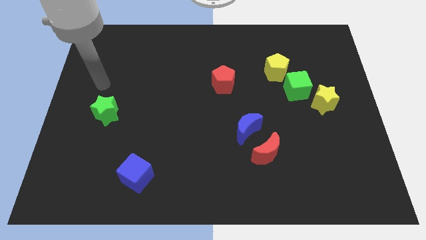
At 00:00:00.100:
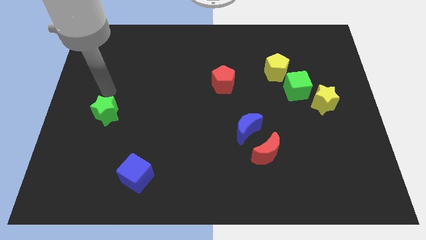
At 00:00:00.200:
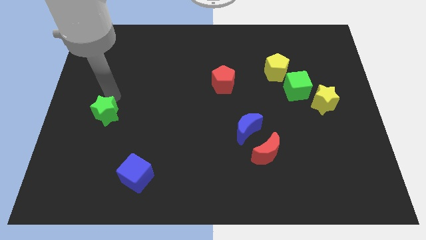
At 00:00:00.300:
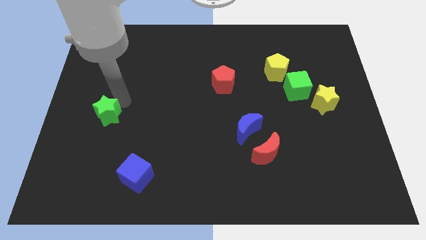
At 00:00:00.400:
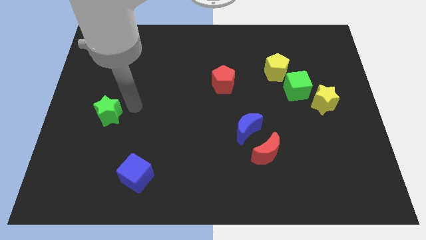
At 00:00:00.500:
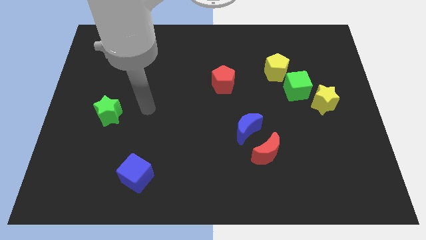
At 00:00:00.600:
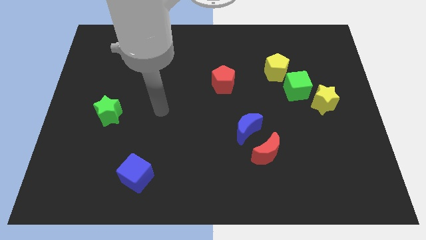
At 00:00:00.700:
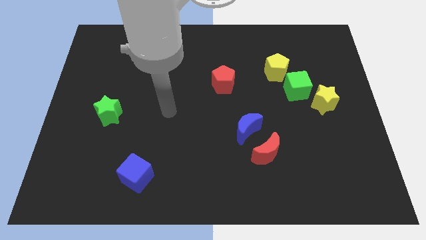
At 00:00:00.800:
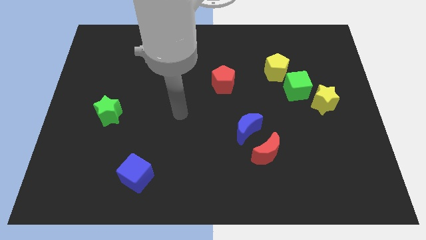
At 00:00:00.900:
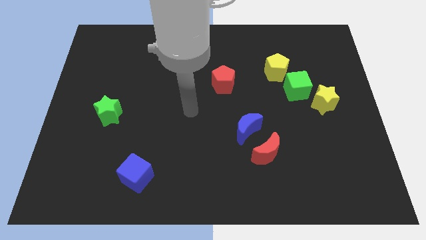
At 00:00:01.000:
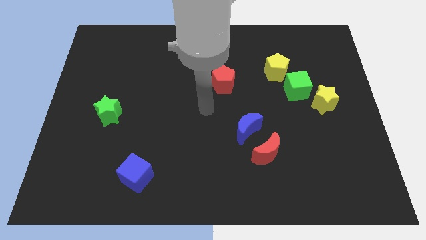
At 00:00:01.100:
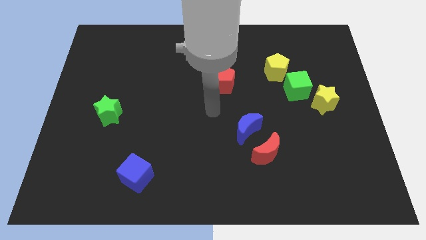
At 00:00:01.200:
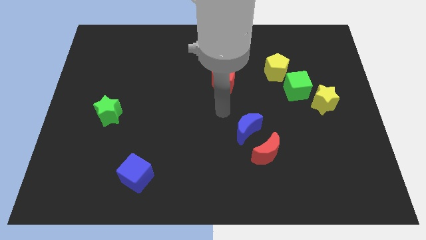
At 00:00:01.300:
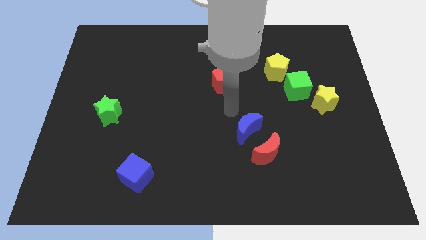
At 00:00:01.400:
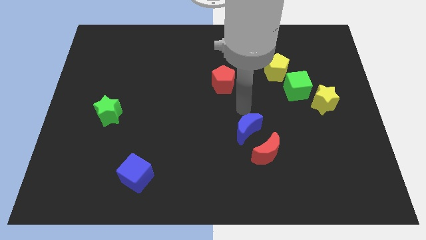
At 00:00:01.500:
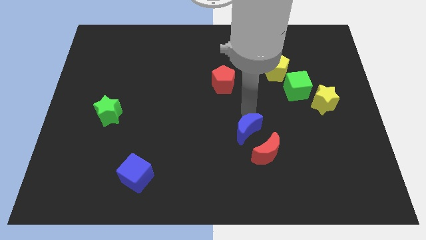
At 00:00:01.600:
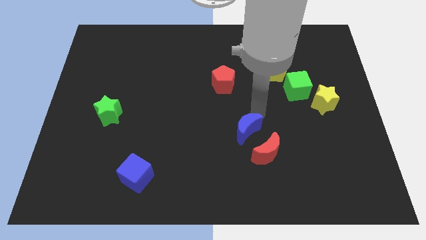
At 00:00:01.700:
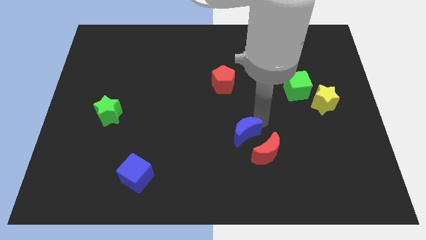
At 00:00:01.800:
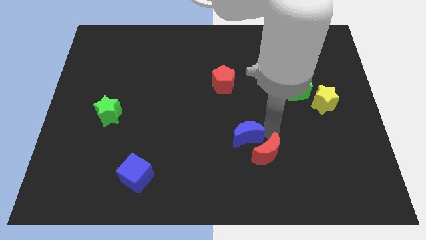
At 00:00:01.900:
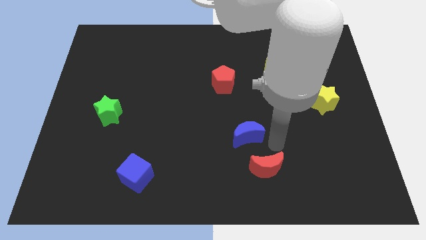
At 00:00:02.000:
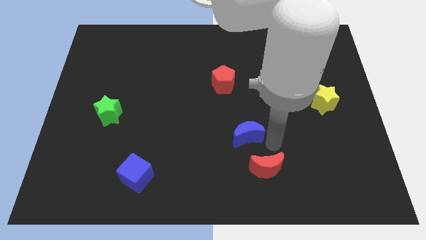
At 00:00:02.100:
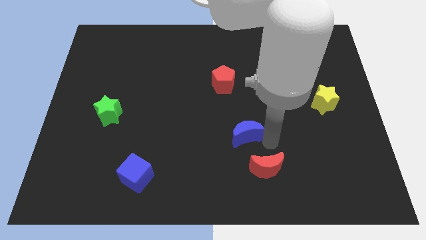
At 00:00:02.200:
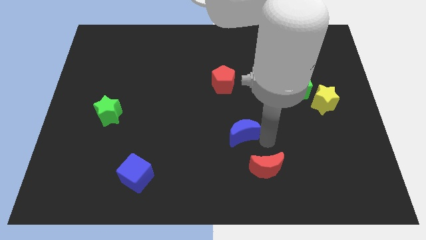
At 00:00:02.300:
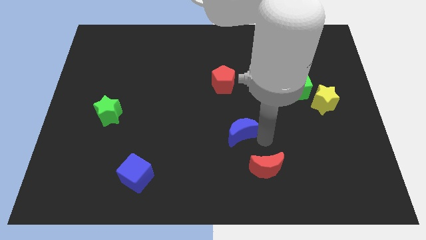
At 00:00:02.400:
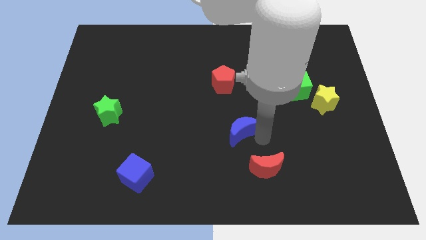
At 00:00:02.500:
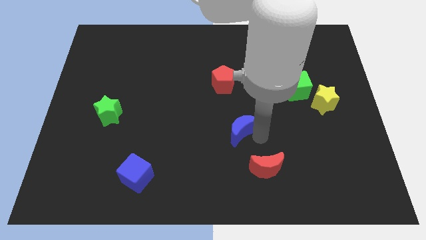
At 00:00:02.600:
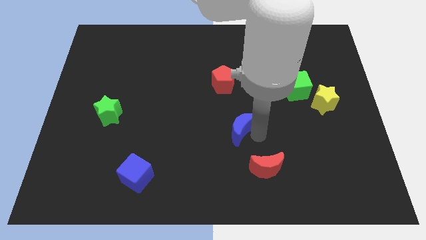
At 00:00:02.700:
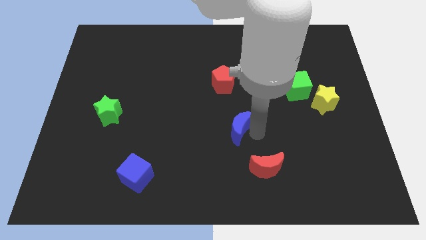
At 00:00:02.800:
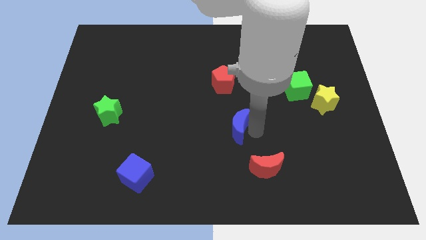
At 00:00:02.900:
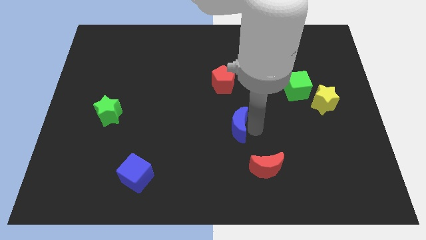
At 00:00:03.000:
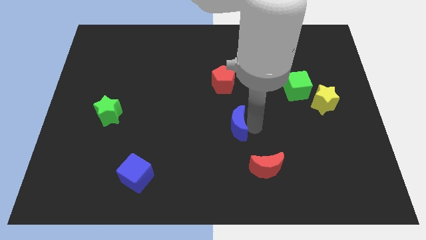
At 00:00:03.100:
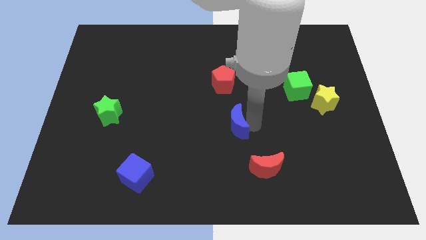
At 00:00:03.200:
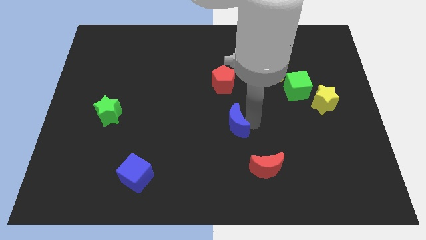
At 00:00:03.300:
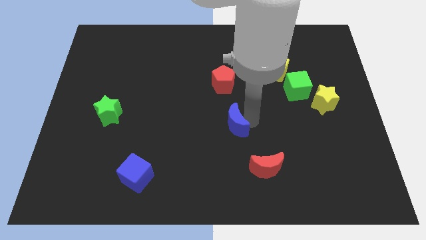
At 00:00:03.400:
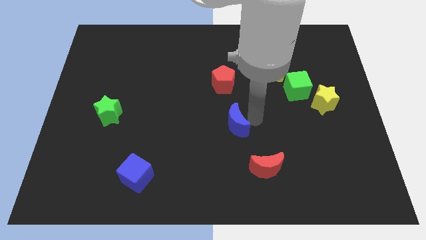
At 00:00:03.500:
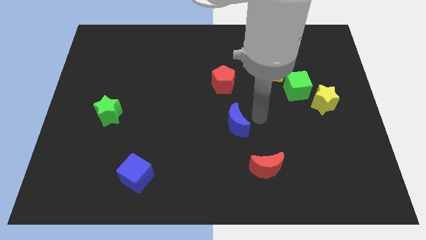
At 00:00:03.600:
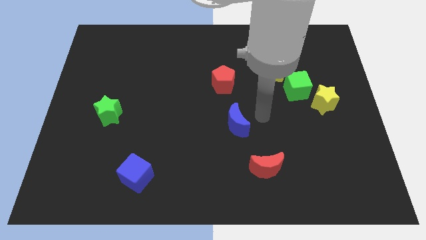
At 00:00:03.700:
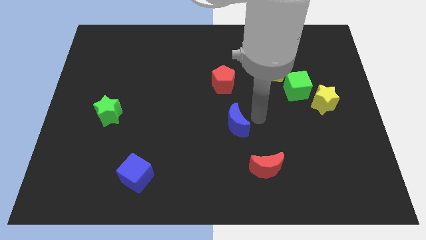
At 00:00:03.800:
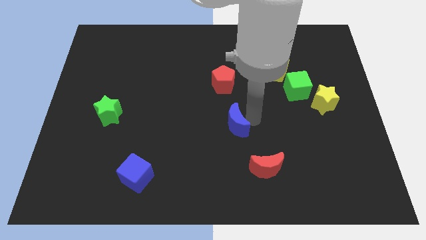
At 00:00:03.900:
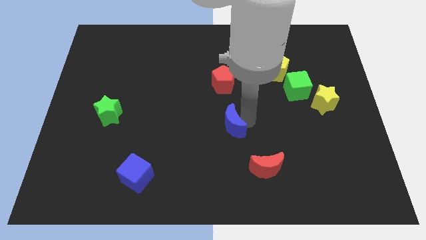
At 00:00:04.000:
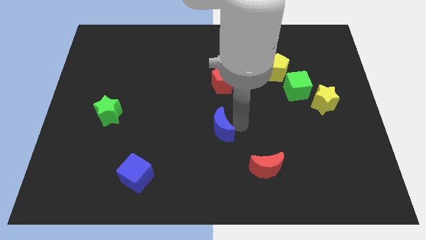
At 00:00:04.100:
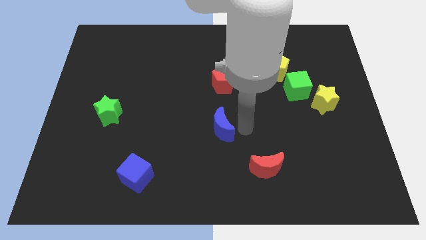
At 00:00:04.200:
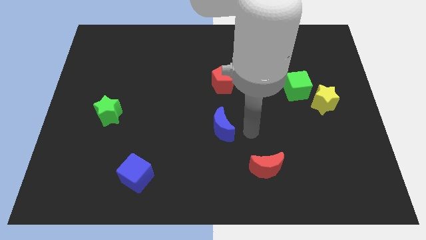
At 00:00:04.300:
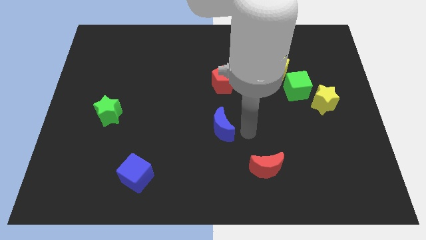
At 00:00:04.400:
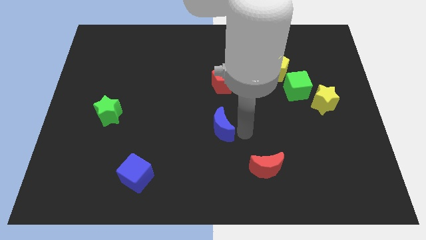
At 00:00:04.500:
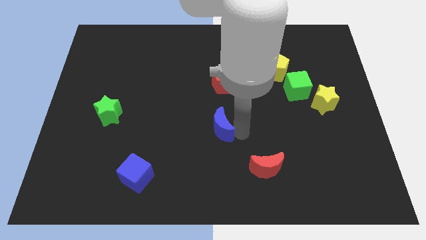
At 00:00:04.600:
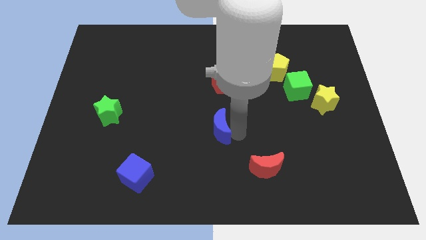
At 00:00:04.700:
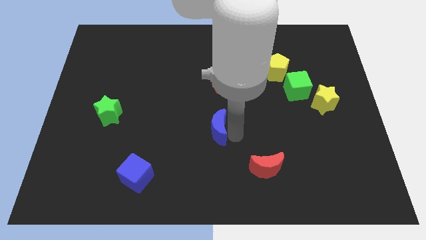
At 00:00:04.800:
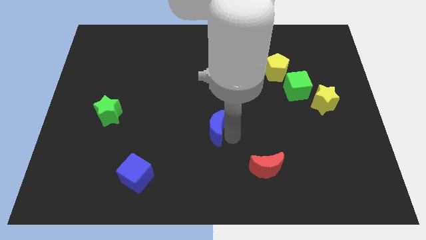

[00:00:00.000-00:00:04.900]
slightly push the blue moon left

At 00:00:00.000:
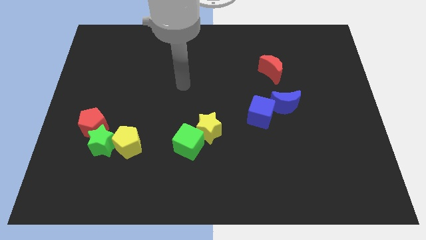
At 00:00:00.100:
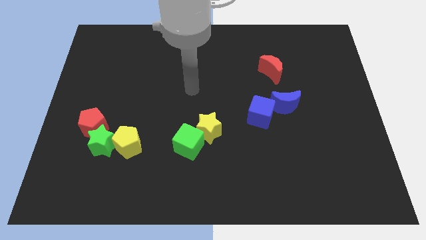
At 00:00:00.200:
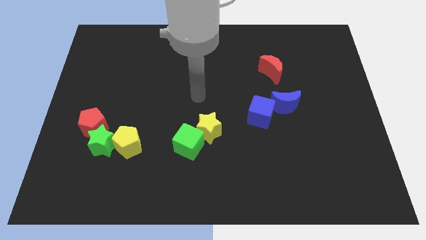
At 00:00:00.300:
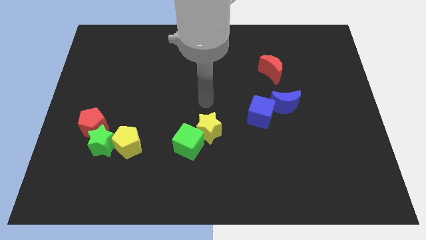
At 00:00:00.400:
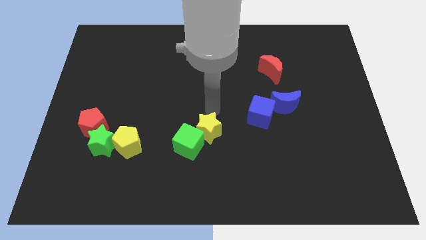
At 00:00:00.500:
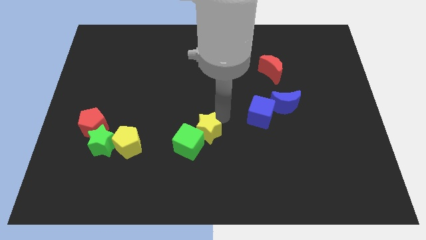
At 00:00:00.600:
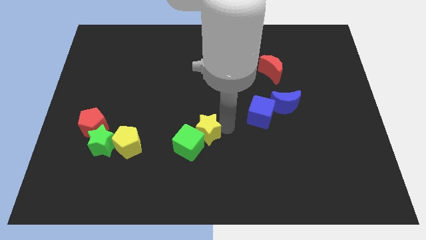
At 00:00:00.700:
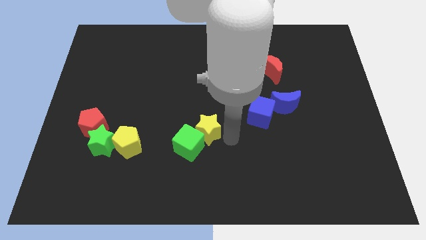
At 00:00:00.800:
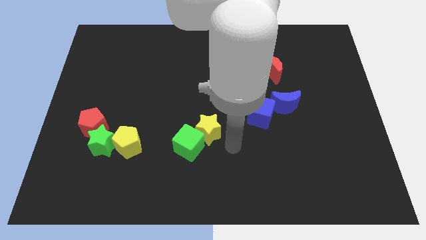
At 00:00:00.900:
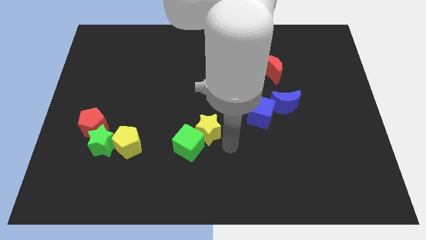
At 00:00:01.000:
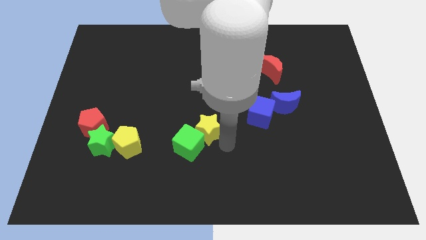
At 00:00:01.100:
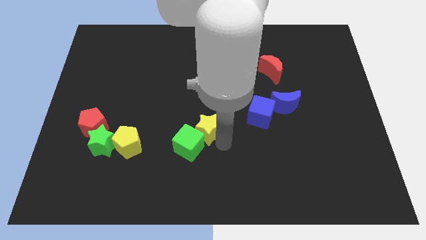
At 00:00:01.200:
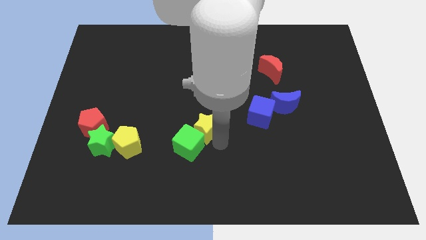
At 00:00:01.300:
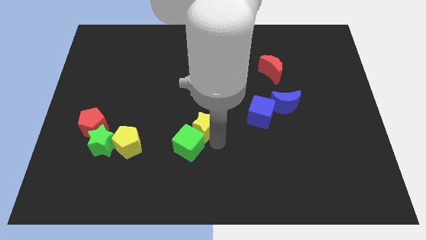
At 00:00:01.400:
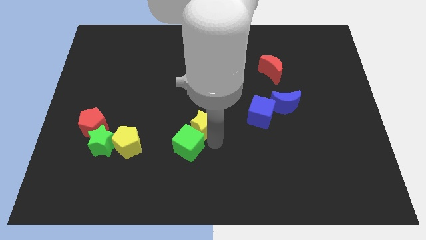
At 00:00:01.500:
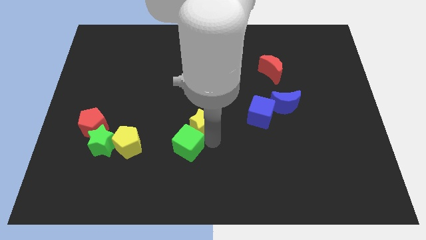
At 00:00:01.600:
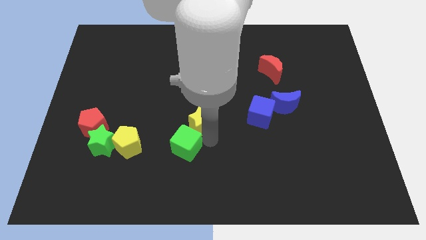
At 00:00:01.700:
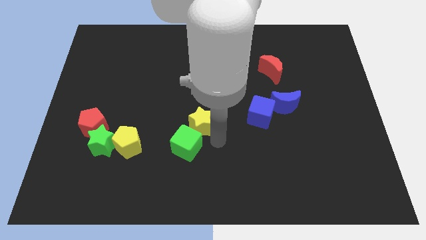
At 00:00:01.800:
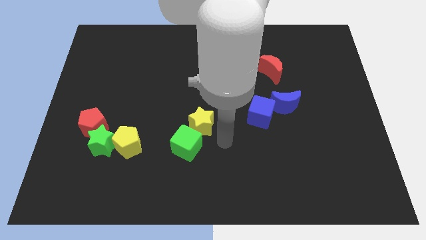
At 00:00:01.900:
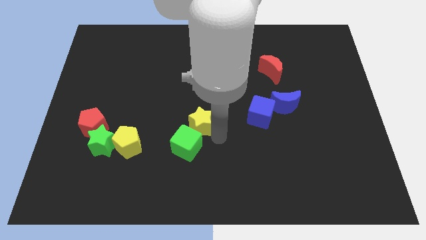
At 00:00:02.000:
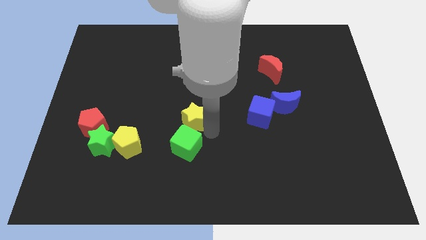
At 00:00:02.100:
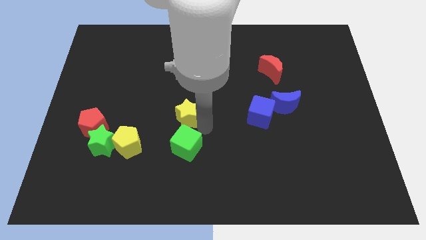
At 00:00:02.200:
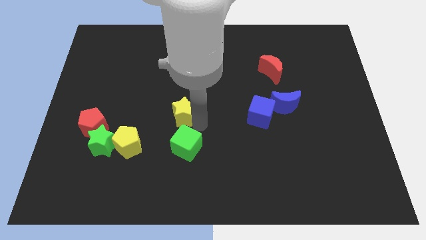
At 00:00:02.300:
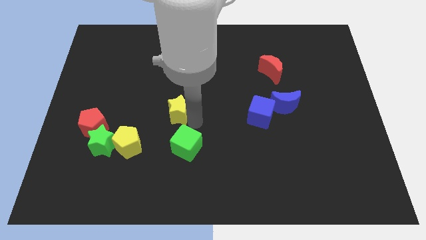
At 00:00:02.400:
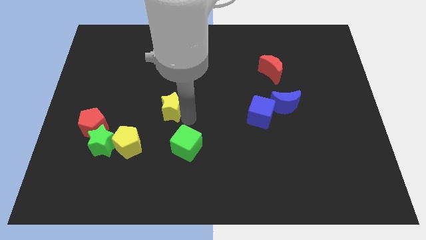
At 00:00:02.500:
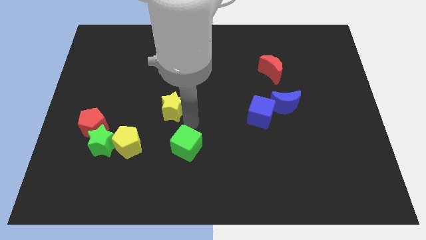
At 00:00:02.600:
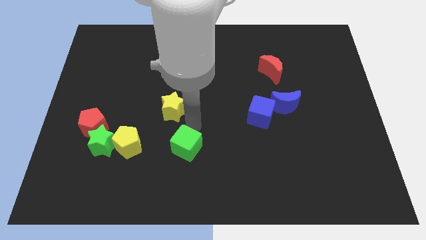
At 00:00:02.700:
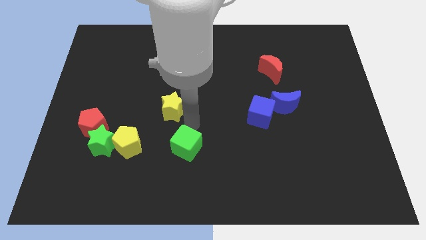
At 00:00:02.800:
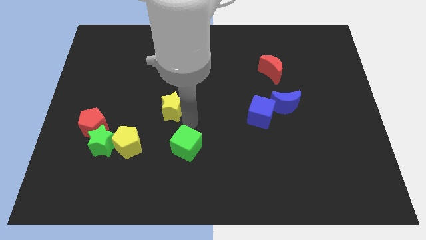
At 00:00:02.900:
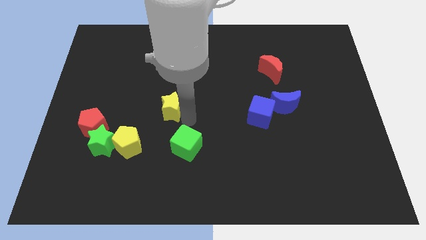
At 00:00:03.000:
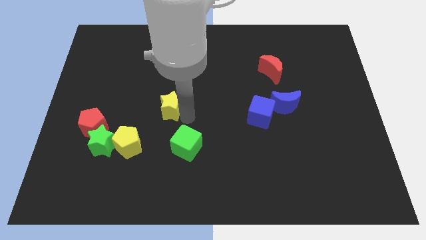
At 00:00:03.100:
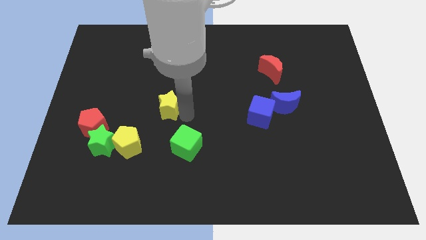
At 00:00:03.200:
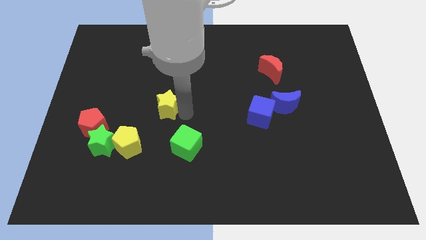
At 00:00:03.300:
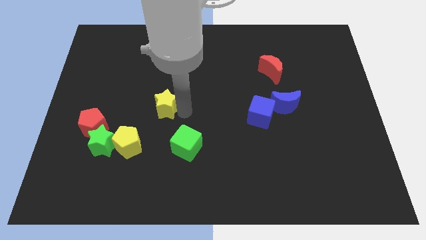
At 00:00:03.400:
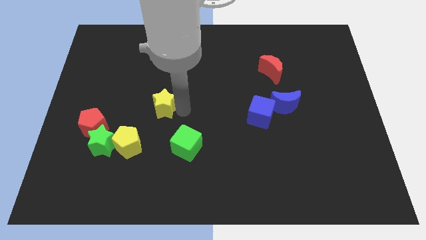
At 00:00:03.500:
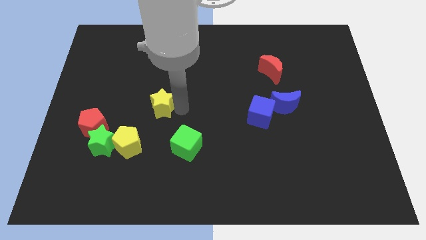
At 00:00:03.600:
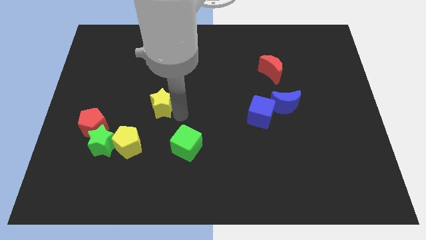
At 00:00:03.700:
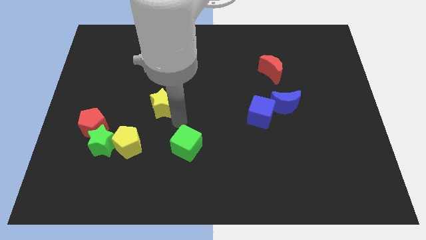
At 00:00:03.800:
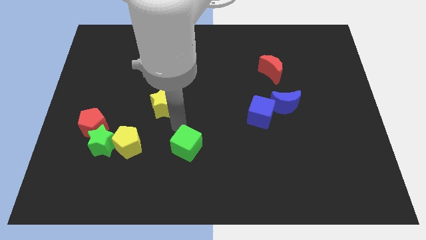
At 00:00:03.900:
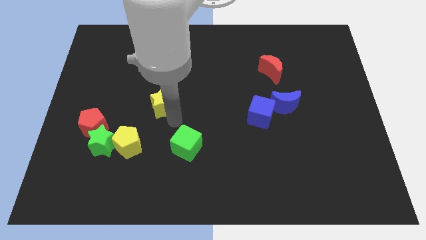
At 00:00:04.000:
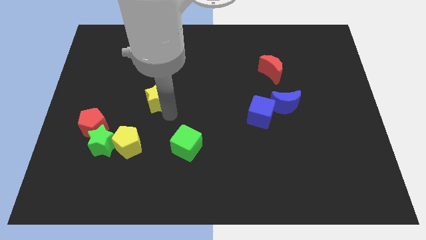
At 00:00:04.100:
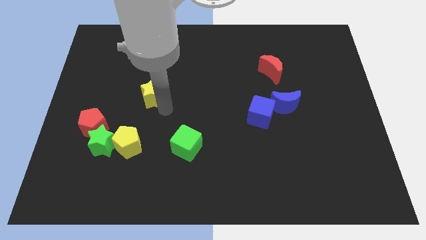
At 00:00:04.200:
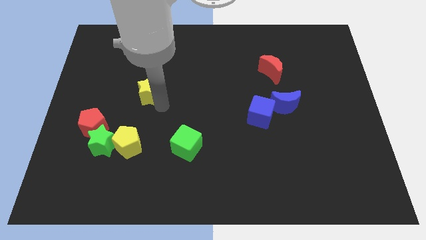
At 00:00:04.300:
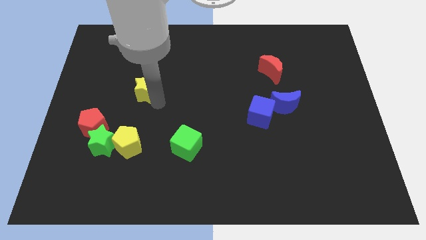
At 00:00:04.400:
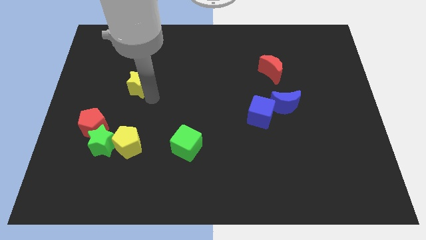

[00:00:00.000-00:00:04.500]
push the yellow star up and then left
